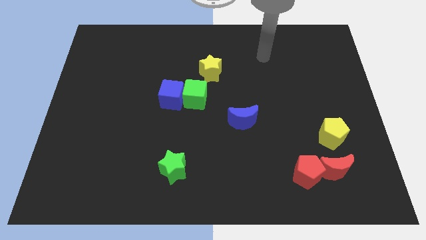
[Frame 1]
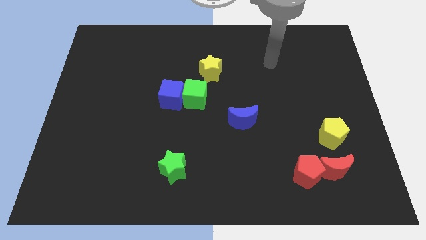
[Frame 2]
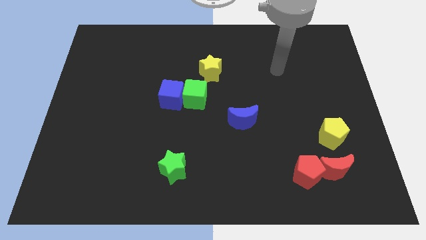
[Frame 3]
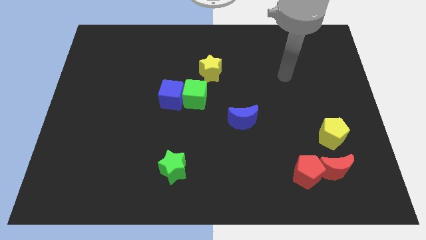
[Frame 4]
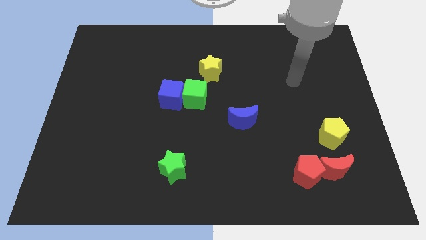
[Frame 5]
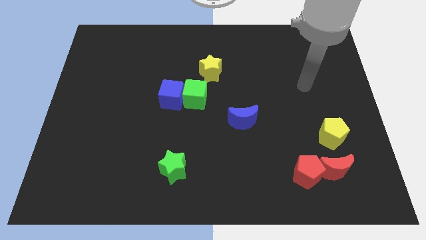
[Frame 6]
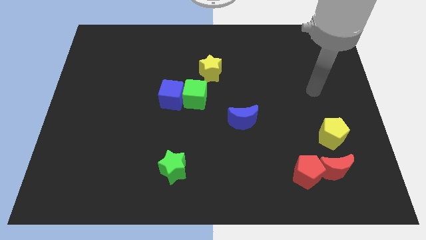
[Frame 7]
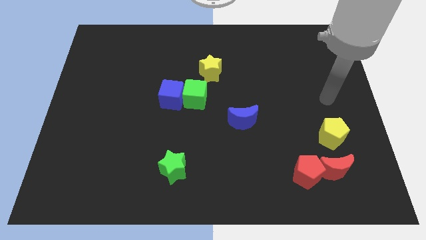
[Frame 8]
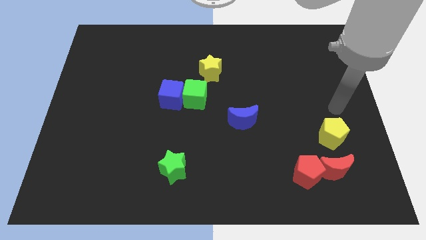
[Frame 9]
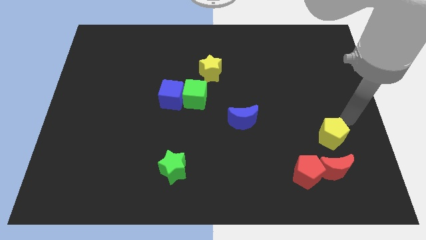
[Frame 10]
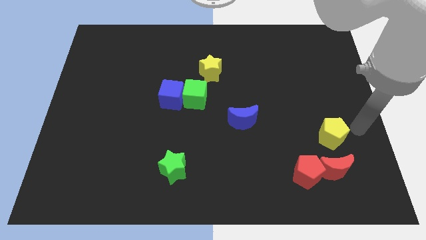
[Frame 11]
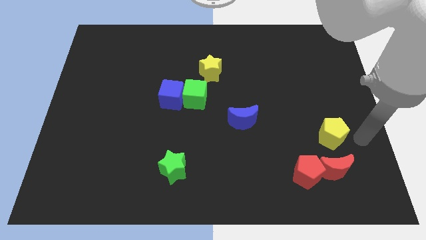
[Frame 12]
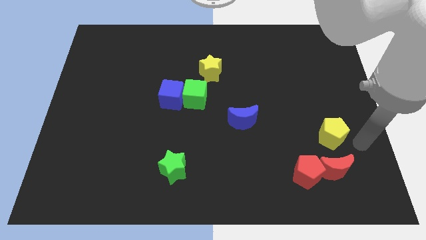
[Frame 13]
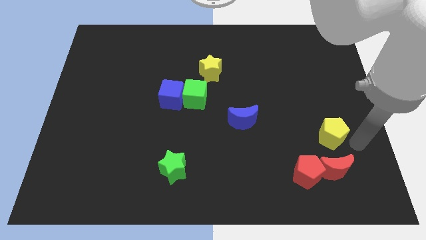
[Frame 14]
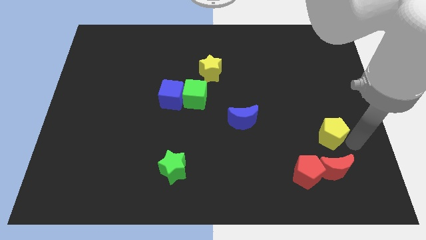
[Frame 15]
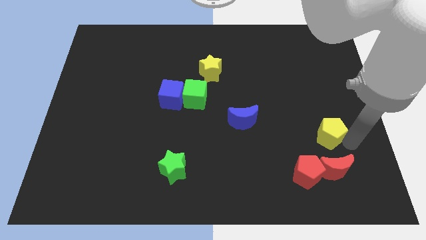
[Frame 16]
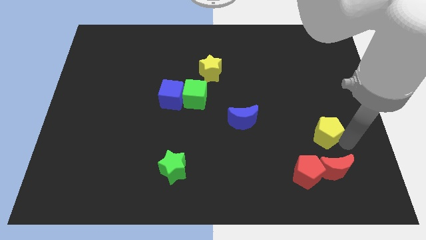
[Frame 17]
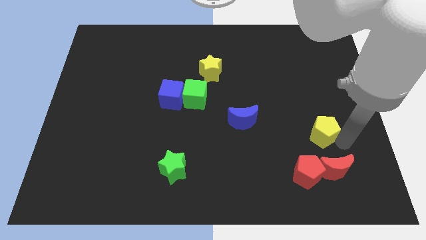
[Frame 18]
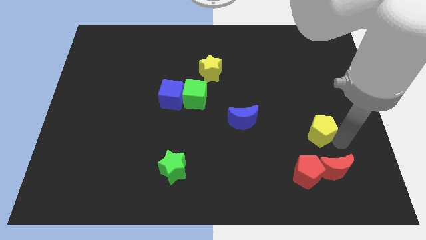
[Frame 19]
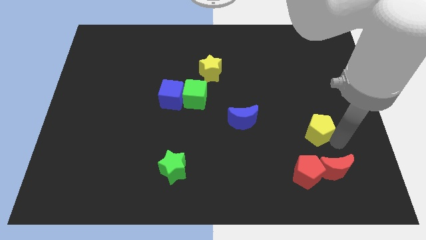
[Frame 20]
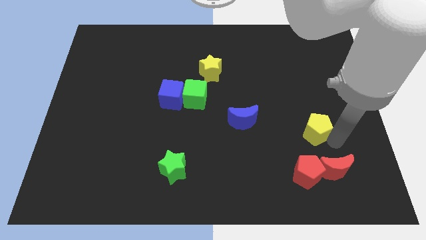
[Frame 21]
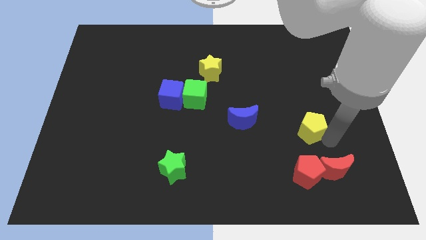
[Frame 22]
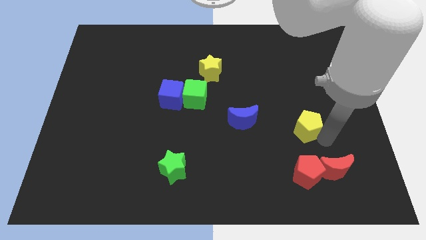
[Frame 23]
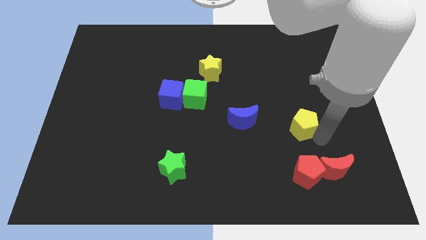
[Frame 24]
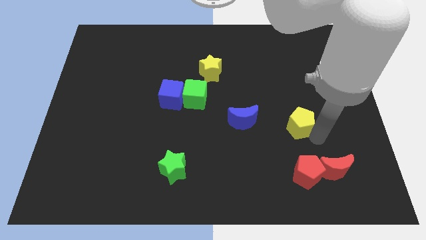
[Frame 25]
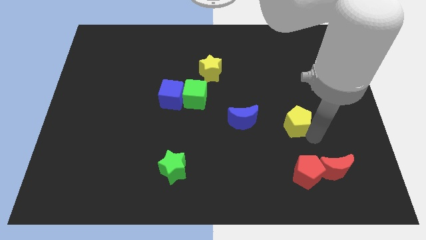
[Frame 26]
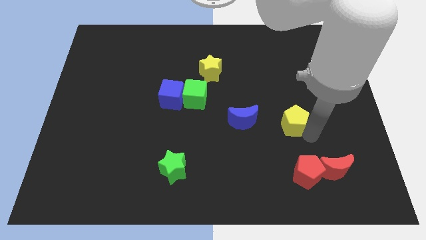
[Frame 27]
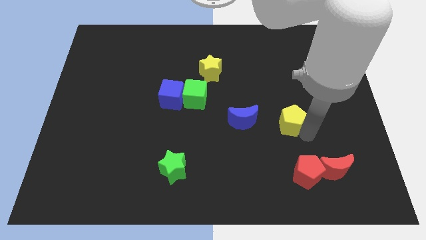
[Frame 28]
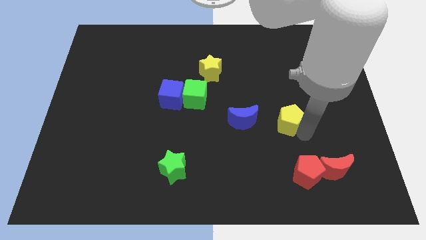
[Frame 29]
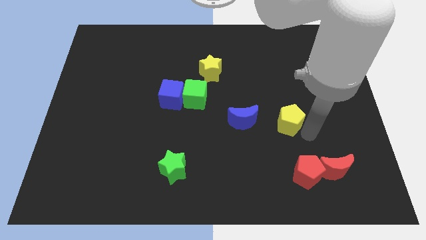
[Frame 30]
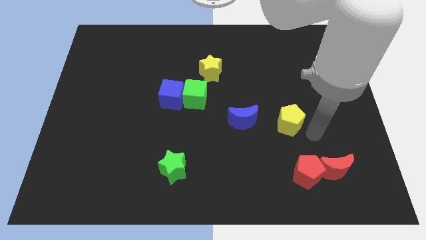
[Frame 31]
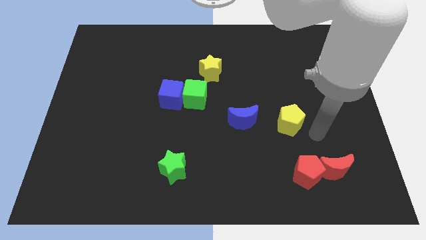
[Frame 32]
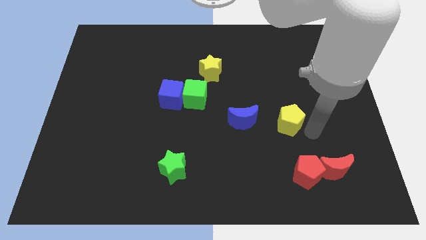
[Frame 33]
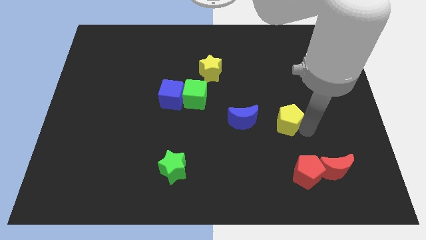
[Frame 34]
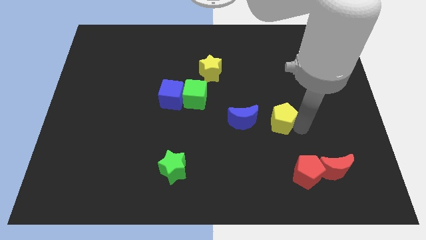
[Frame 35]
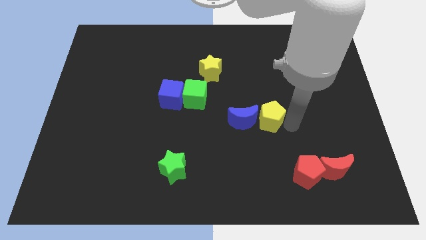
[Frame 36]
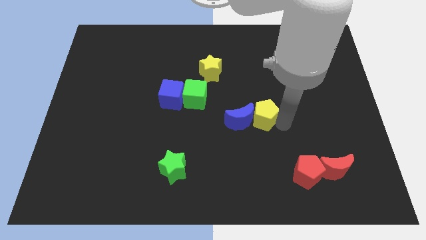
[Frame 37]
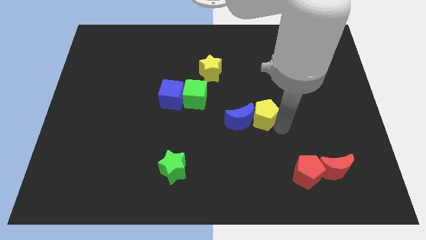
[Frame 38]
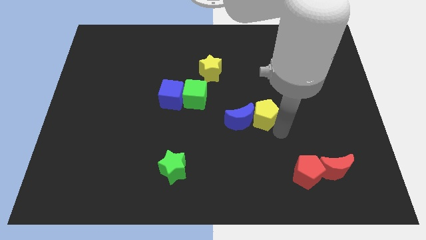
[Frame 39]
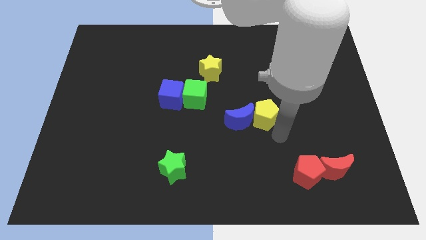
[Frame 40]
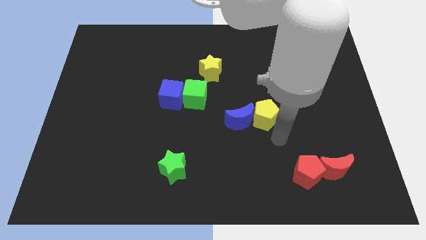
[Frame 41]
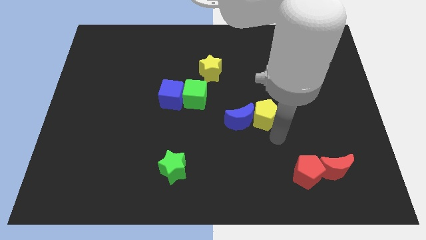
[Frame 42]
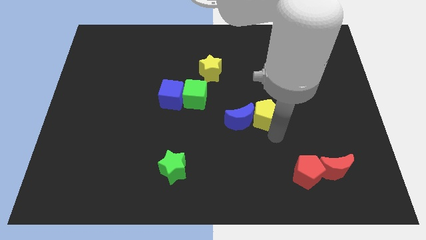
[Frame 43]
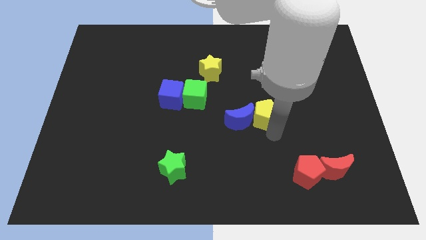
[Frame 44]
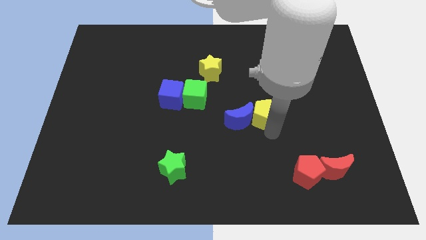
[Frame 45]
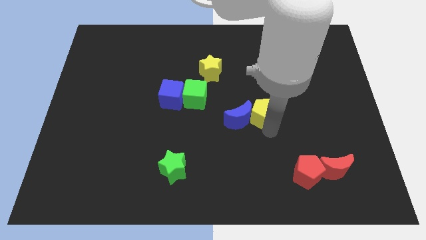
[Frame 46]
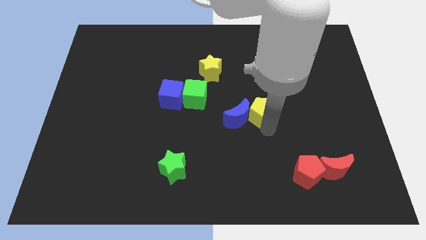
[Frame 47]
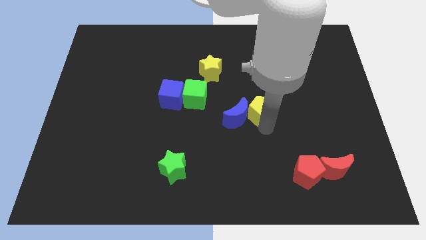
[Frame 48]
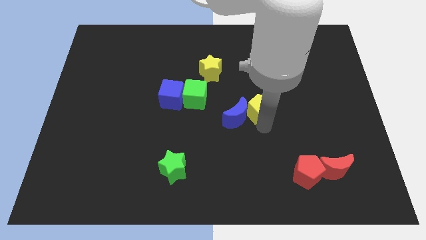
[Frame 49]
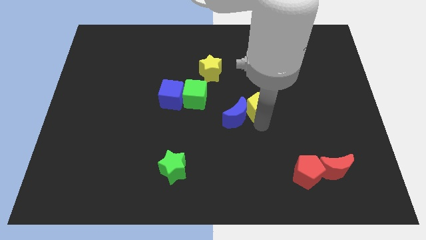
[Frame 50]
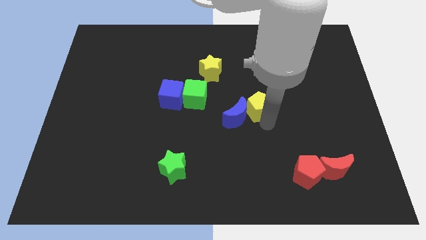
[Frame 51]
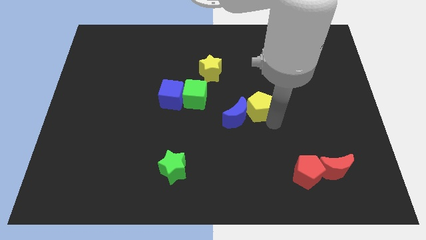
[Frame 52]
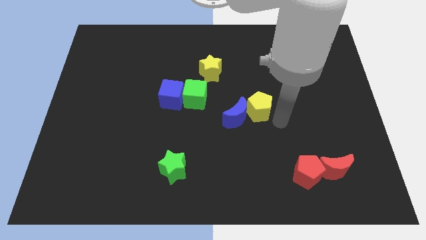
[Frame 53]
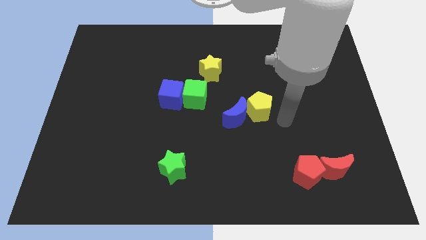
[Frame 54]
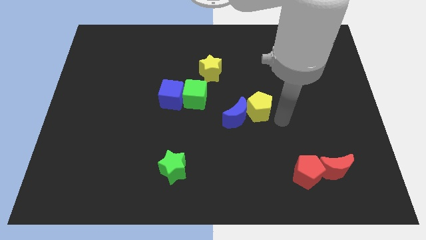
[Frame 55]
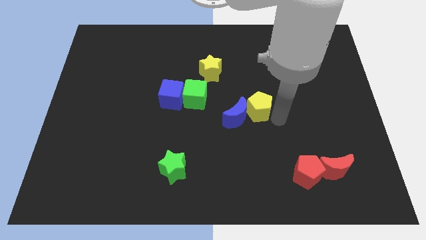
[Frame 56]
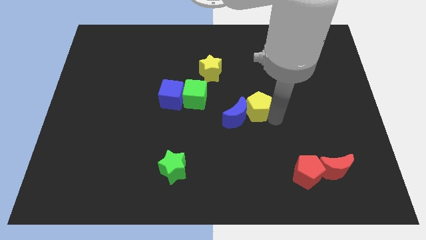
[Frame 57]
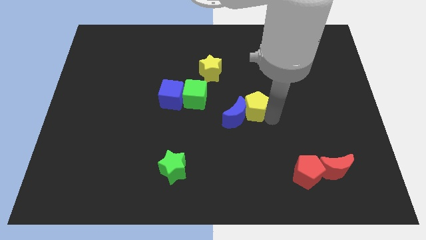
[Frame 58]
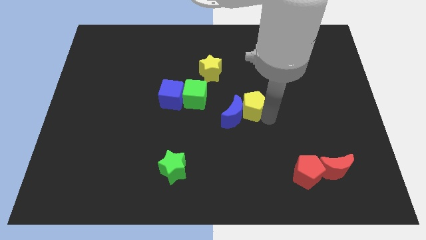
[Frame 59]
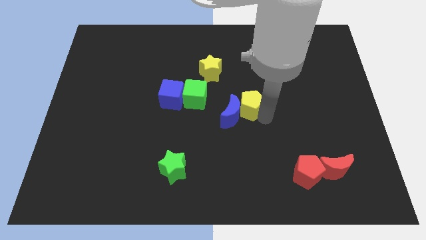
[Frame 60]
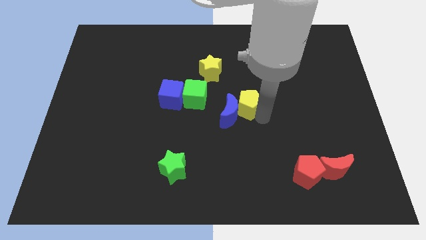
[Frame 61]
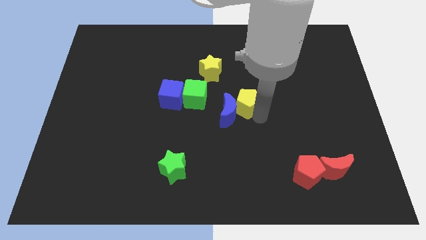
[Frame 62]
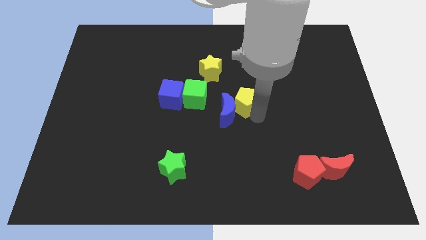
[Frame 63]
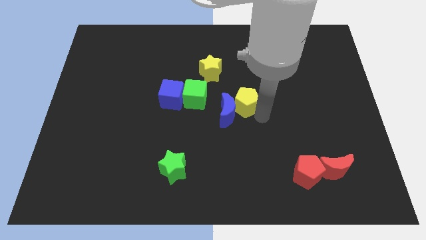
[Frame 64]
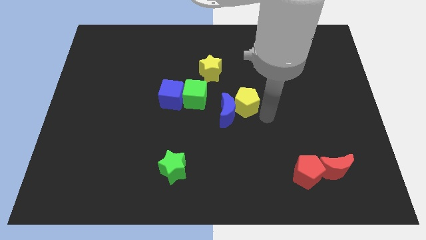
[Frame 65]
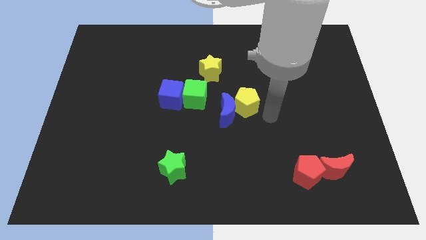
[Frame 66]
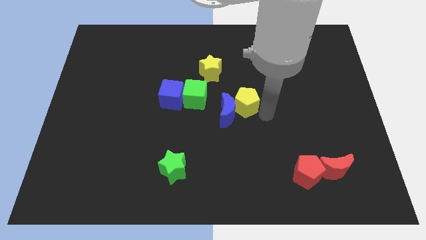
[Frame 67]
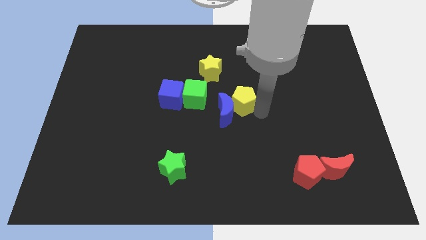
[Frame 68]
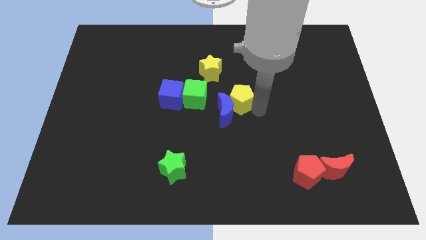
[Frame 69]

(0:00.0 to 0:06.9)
slide the yellow pentagon just right of the blue cube
